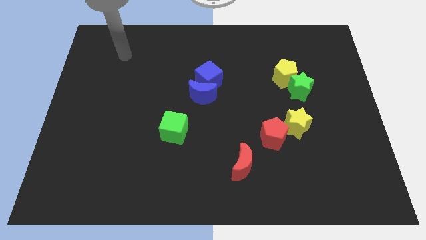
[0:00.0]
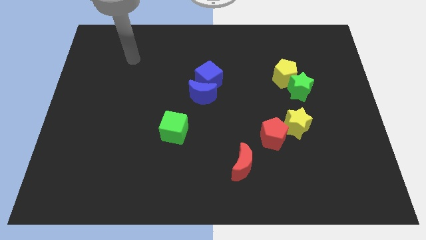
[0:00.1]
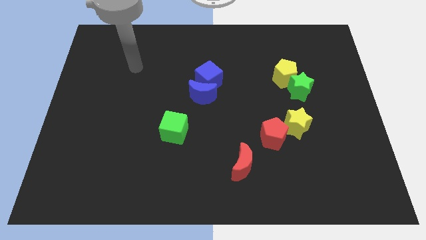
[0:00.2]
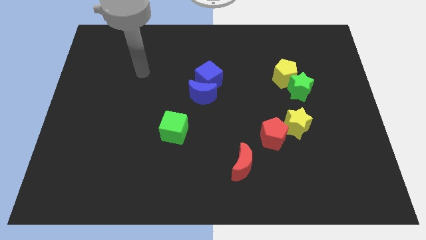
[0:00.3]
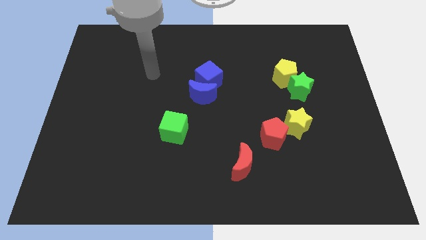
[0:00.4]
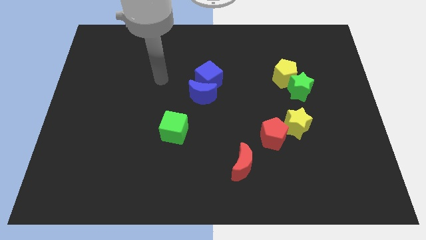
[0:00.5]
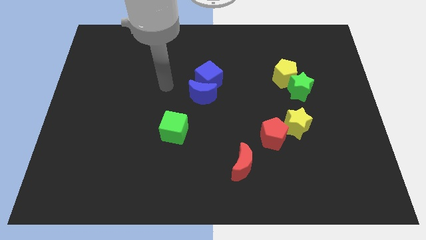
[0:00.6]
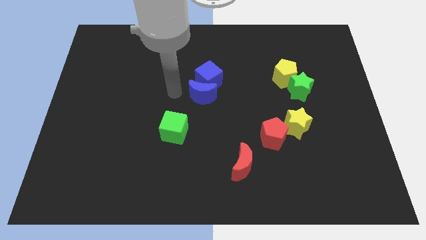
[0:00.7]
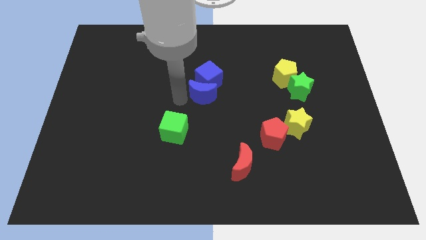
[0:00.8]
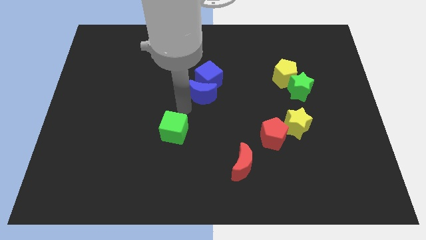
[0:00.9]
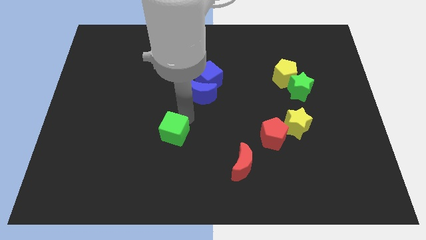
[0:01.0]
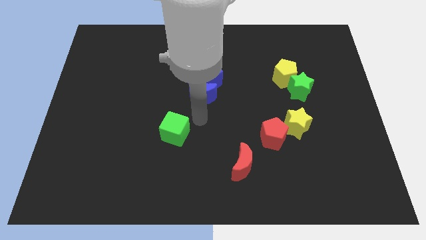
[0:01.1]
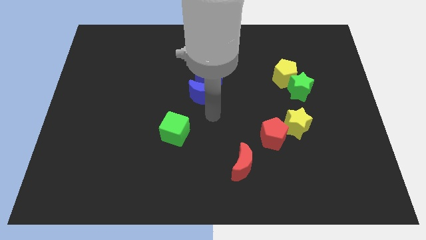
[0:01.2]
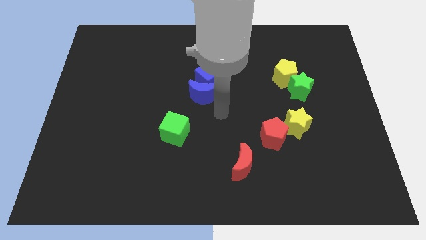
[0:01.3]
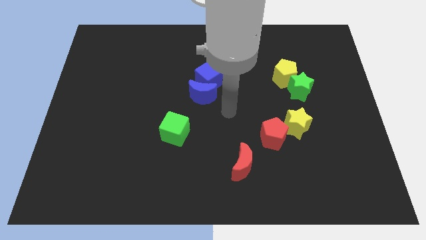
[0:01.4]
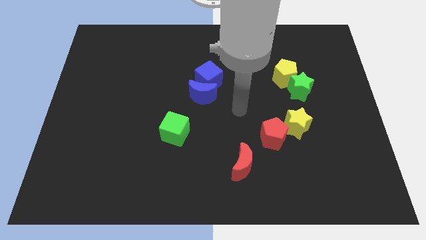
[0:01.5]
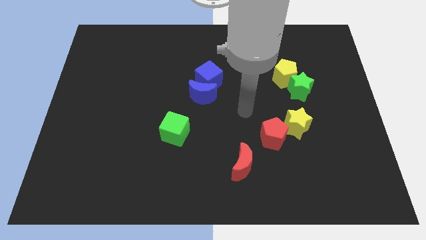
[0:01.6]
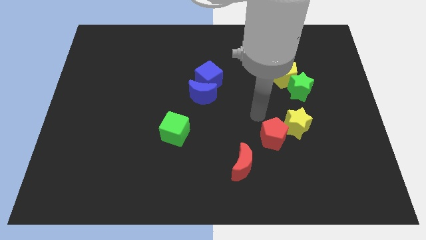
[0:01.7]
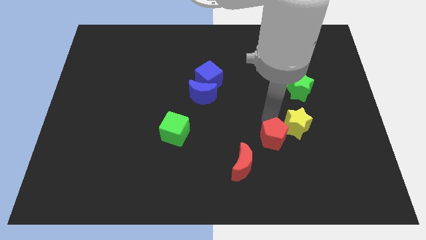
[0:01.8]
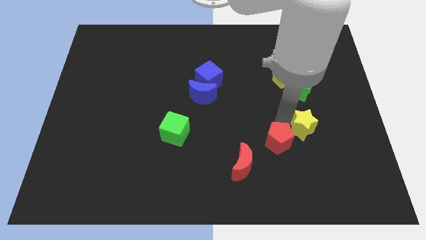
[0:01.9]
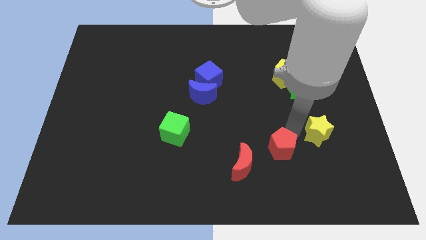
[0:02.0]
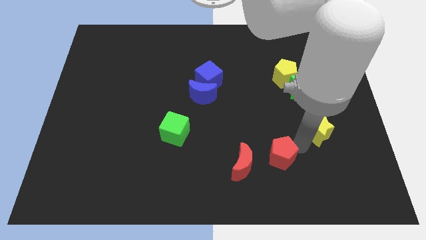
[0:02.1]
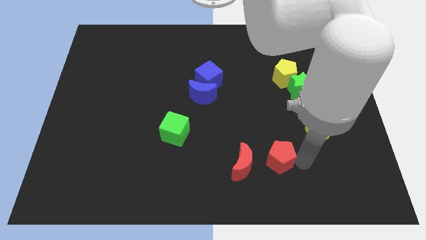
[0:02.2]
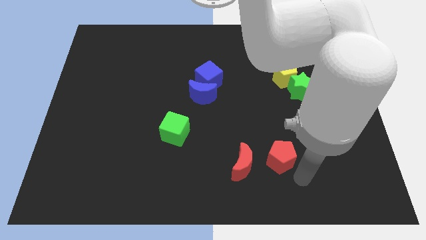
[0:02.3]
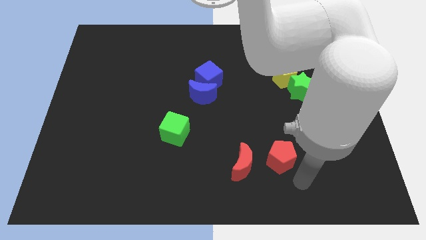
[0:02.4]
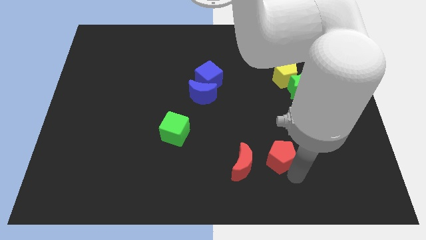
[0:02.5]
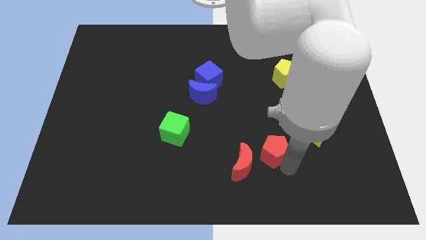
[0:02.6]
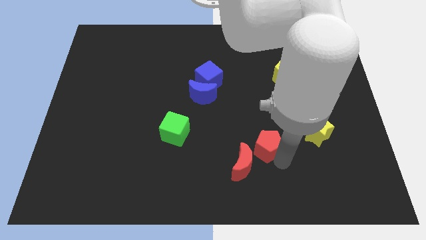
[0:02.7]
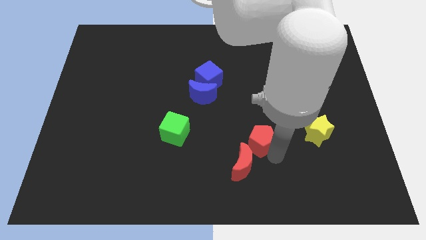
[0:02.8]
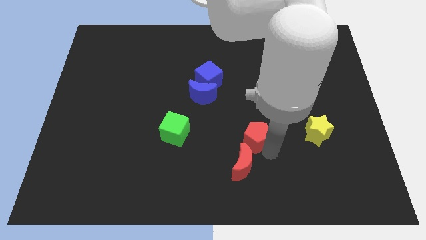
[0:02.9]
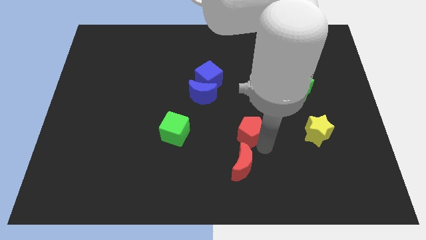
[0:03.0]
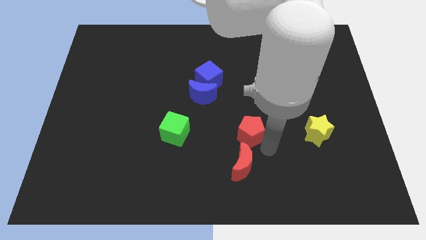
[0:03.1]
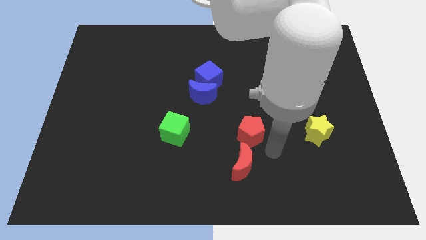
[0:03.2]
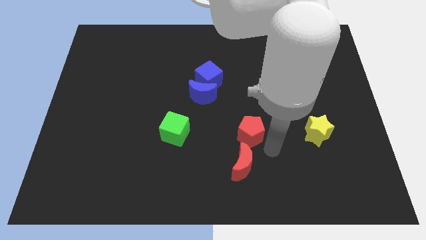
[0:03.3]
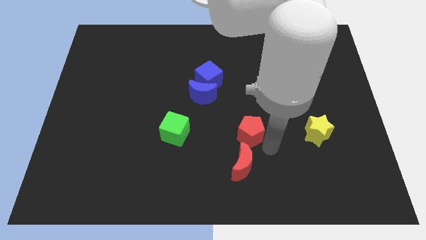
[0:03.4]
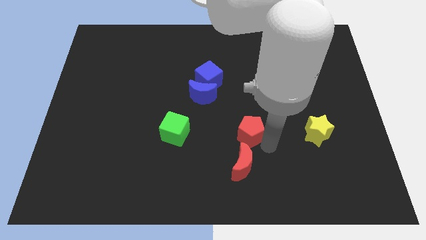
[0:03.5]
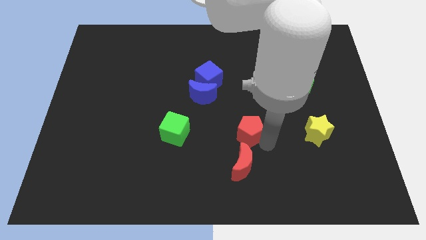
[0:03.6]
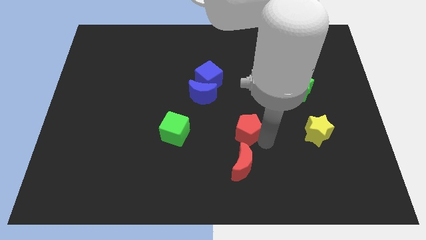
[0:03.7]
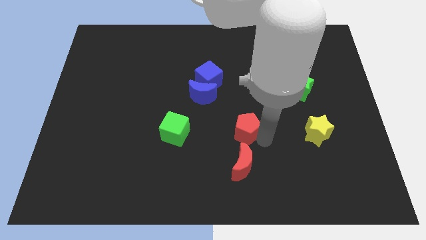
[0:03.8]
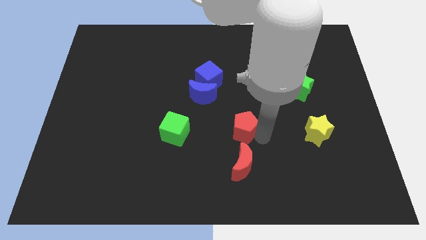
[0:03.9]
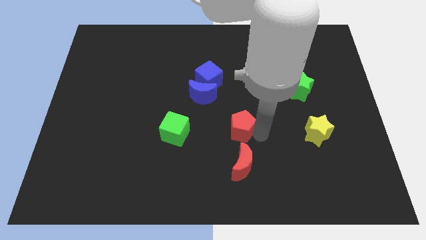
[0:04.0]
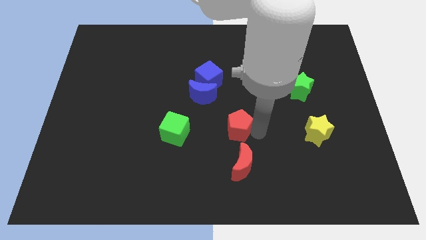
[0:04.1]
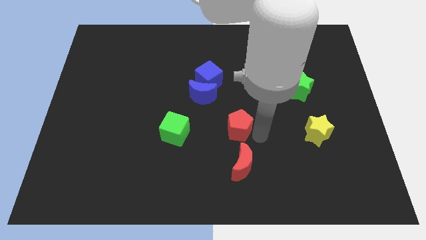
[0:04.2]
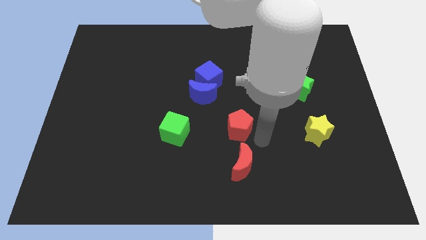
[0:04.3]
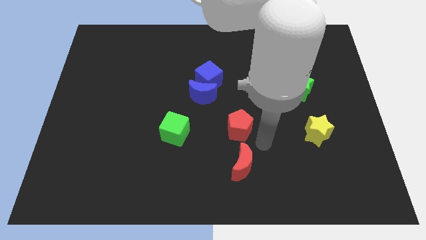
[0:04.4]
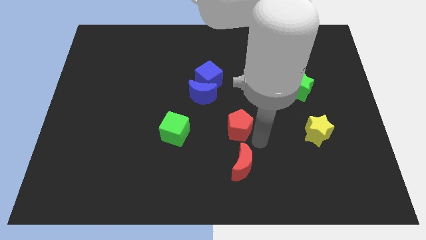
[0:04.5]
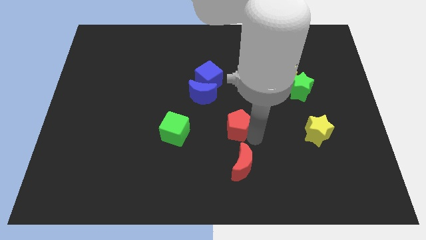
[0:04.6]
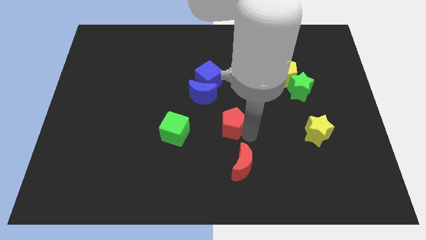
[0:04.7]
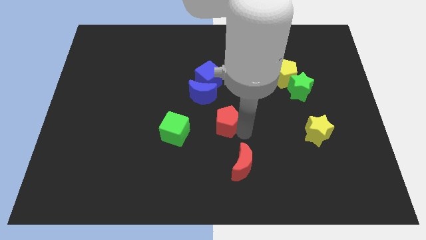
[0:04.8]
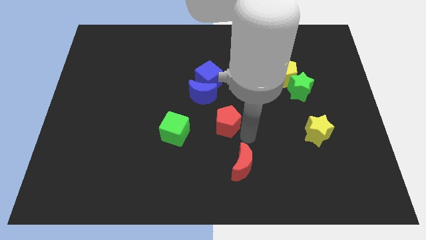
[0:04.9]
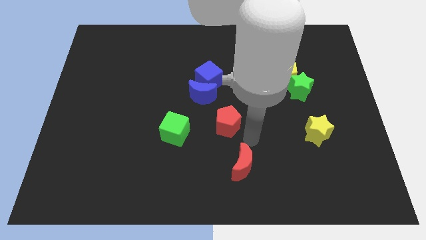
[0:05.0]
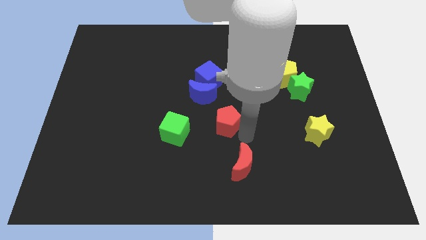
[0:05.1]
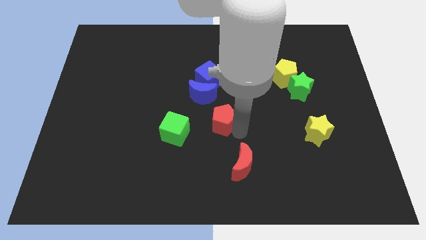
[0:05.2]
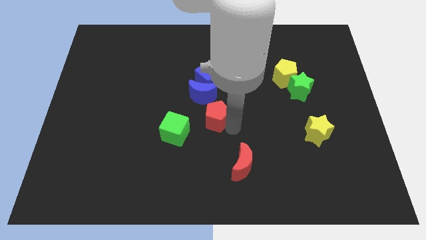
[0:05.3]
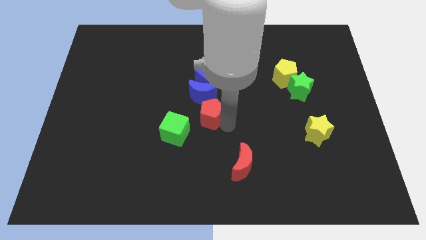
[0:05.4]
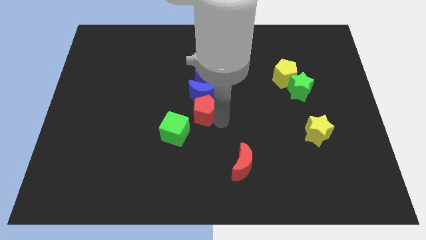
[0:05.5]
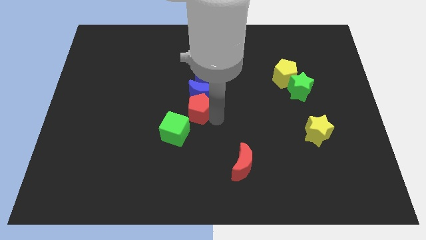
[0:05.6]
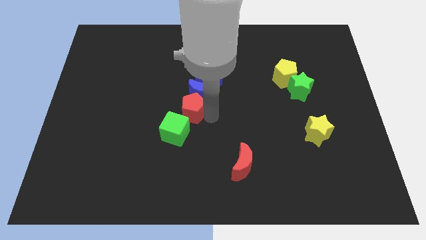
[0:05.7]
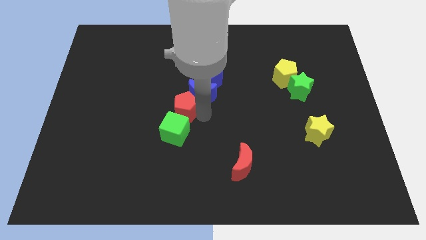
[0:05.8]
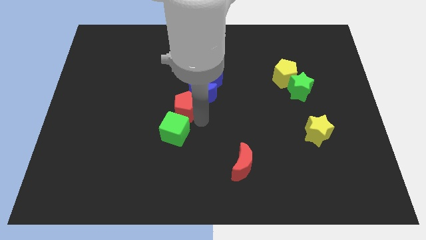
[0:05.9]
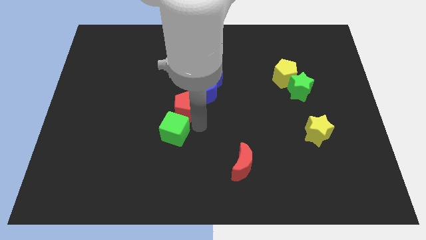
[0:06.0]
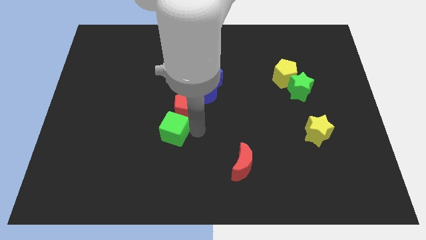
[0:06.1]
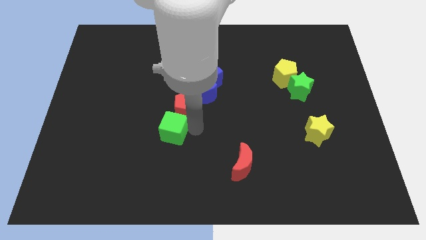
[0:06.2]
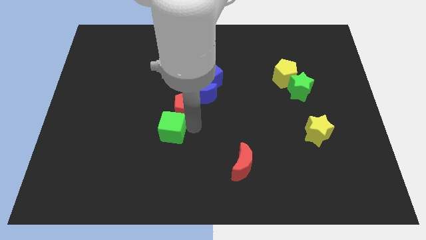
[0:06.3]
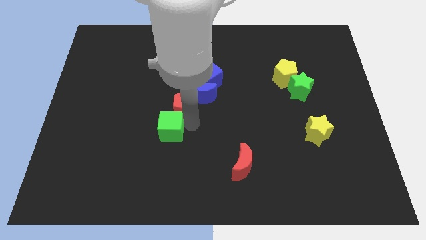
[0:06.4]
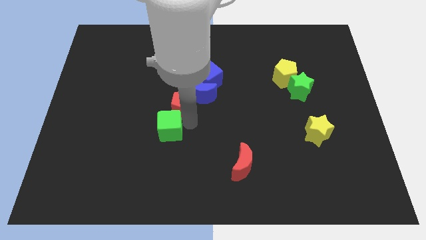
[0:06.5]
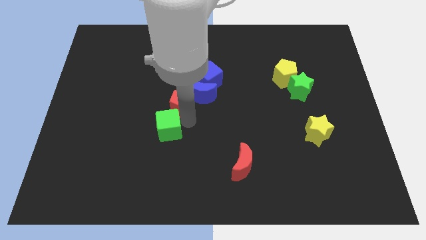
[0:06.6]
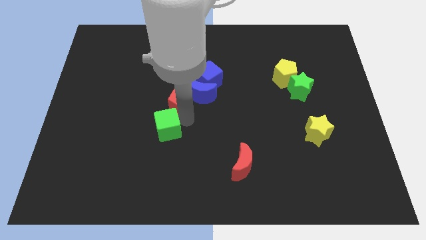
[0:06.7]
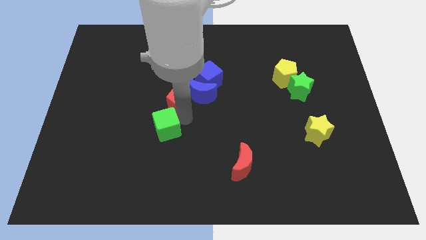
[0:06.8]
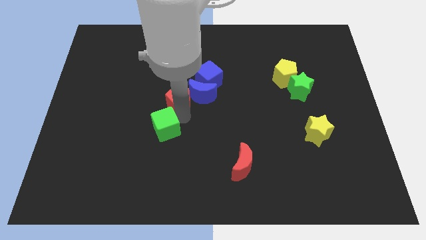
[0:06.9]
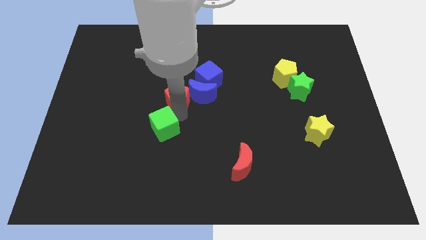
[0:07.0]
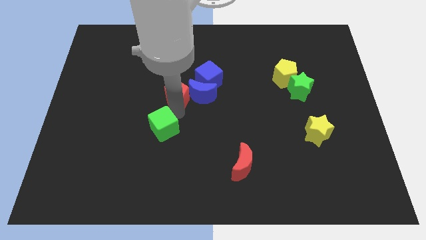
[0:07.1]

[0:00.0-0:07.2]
slide the red pentagon diagonally upwards and left

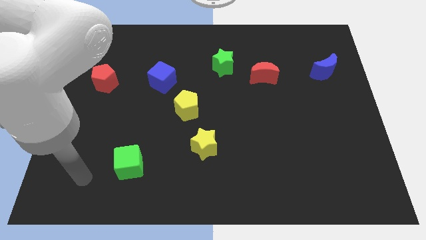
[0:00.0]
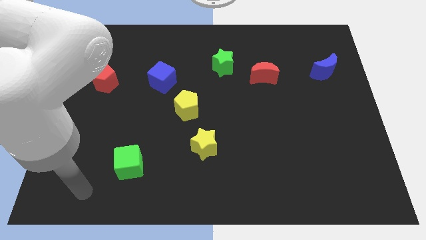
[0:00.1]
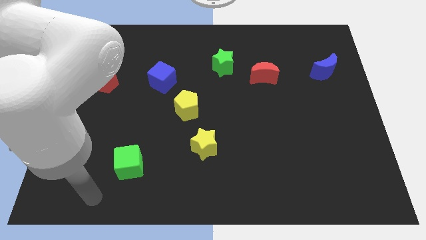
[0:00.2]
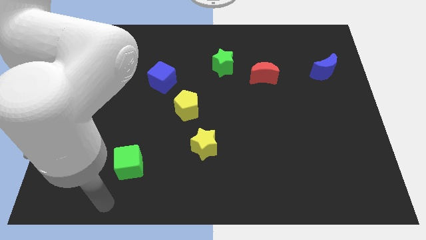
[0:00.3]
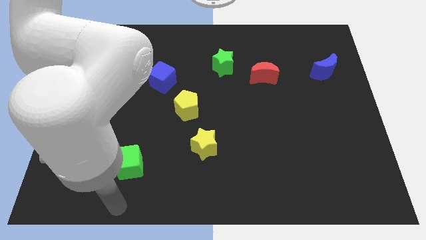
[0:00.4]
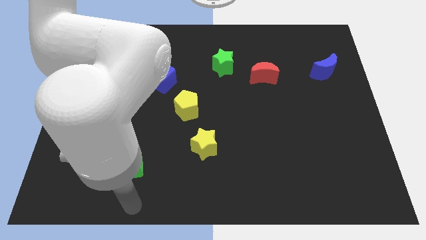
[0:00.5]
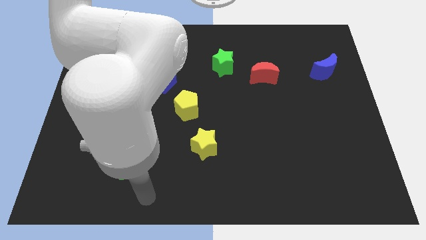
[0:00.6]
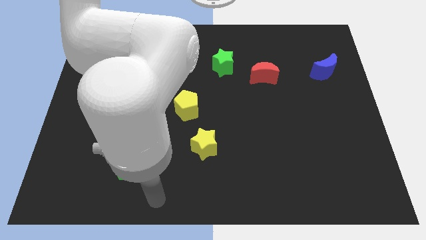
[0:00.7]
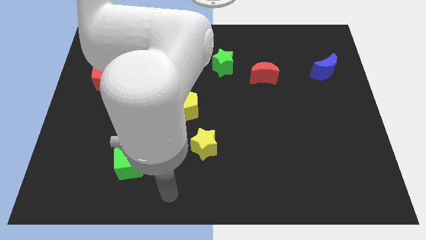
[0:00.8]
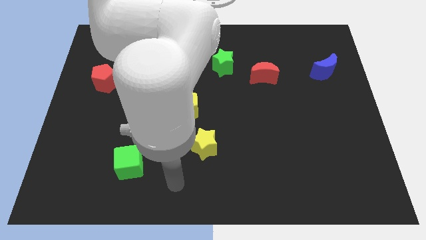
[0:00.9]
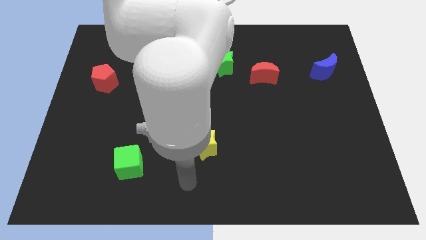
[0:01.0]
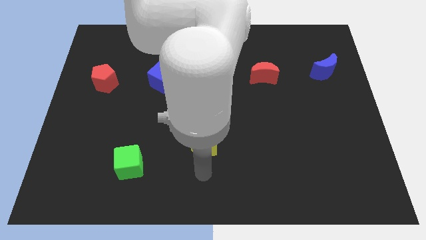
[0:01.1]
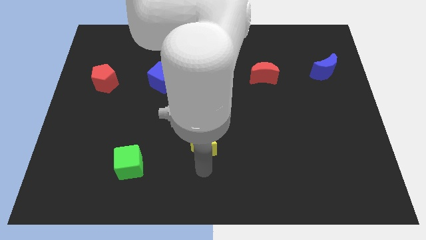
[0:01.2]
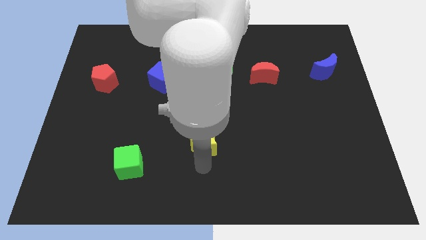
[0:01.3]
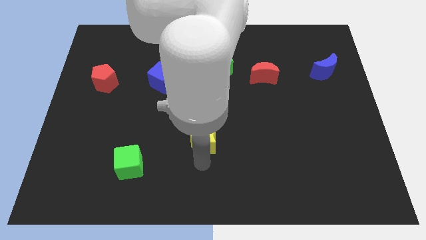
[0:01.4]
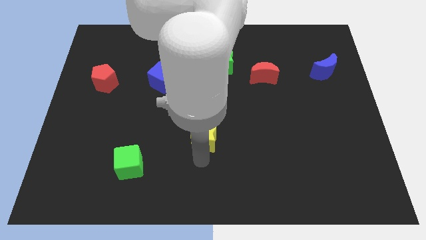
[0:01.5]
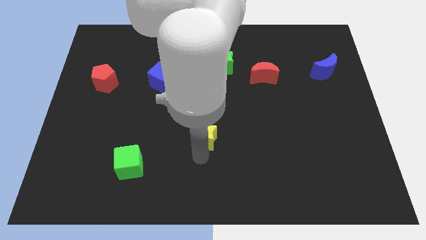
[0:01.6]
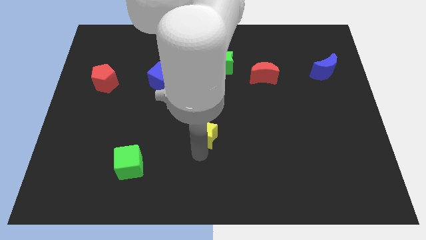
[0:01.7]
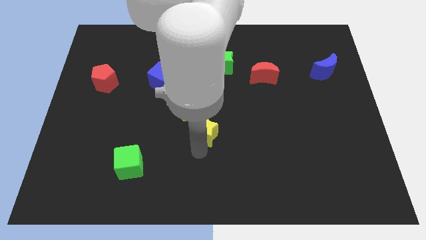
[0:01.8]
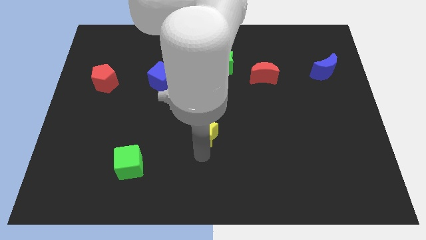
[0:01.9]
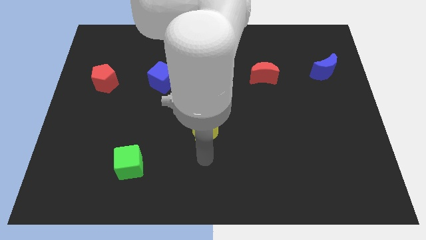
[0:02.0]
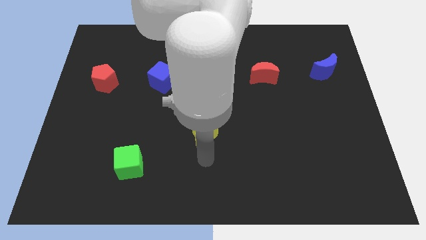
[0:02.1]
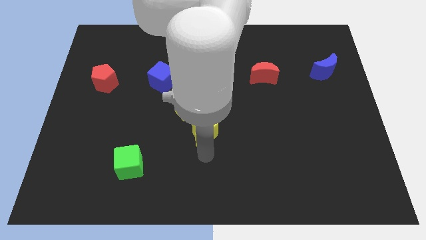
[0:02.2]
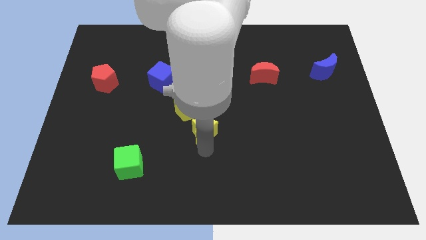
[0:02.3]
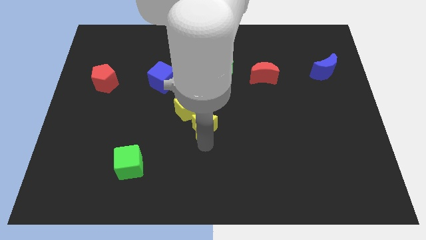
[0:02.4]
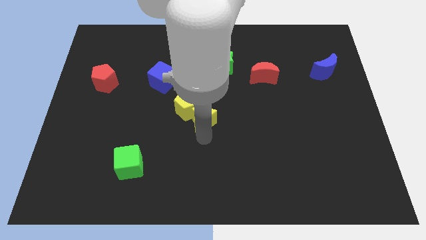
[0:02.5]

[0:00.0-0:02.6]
move the yellow star somewhat up
